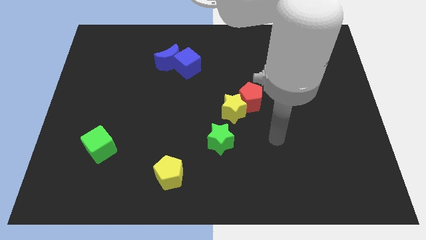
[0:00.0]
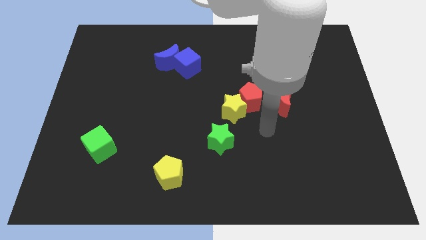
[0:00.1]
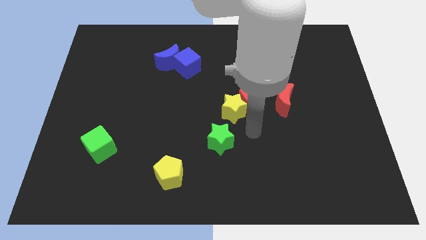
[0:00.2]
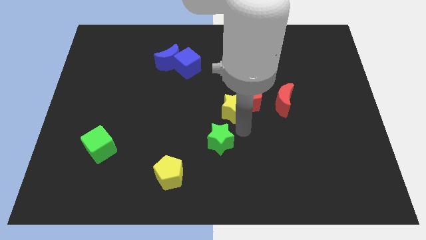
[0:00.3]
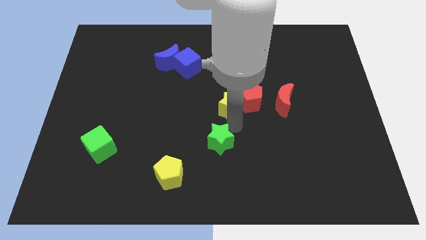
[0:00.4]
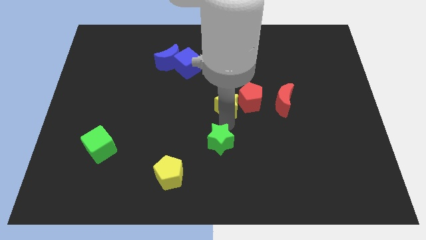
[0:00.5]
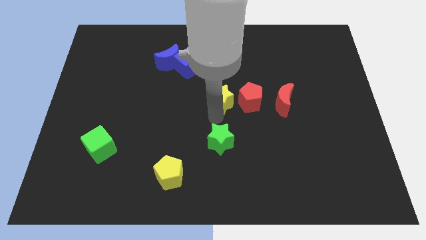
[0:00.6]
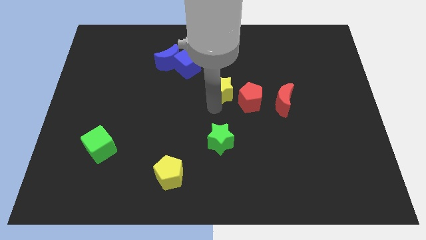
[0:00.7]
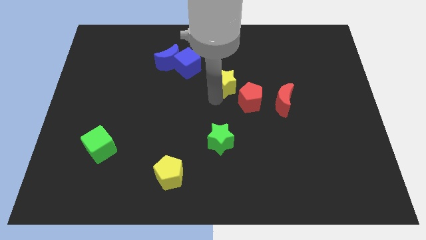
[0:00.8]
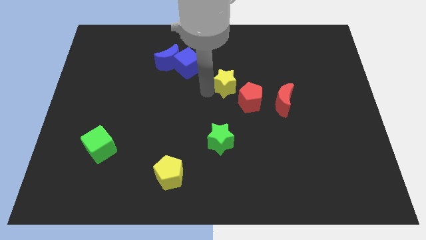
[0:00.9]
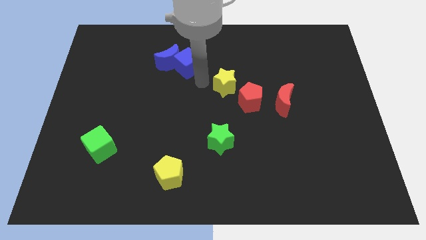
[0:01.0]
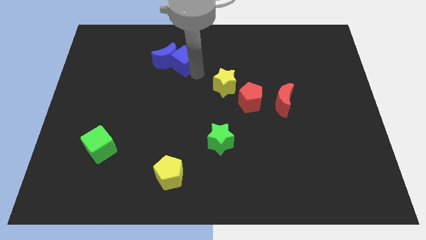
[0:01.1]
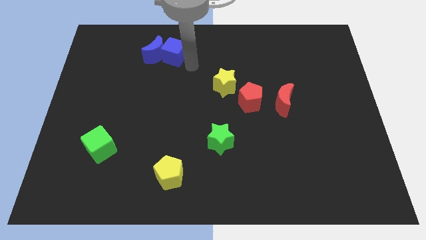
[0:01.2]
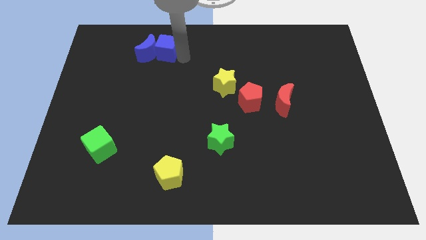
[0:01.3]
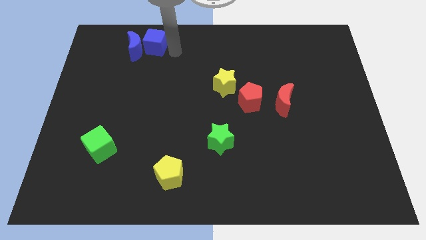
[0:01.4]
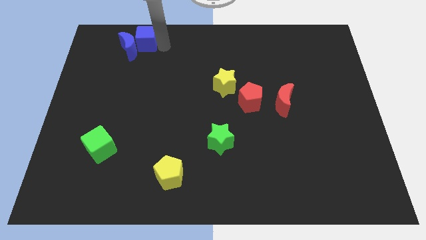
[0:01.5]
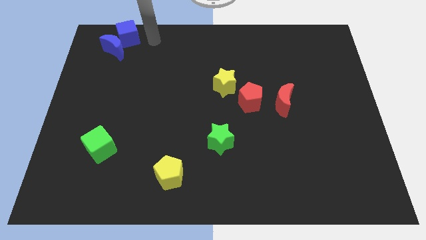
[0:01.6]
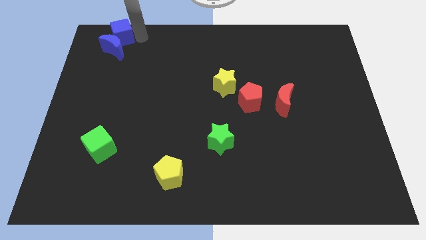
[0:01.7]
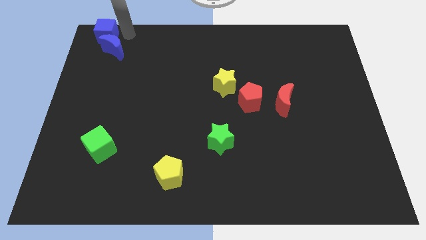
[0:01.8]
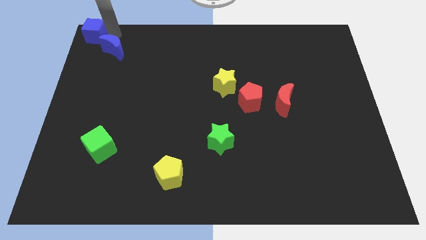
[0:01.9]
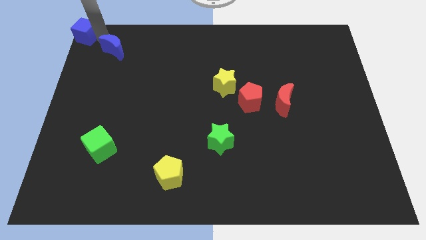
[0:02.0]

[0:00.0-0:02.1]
pull the blue moon apart from the blue cube

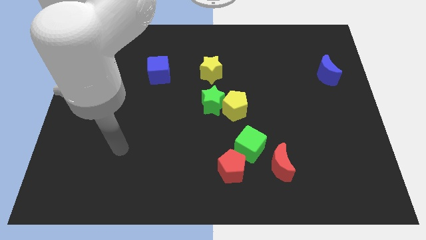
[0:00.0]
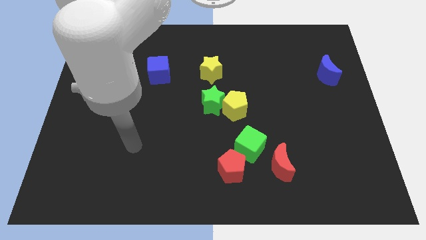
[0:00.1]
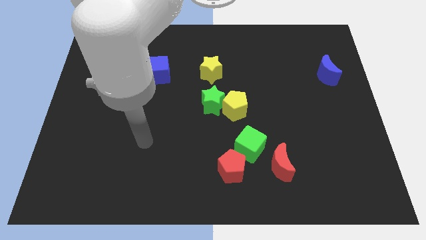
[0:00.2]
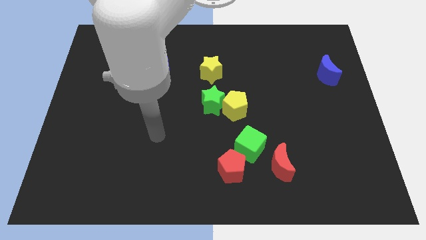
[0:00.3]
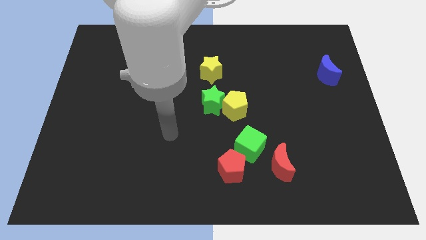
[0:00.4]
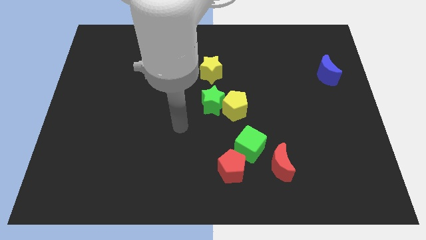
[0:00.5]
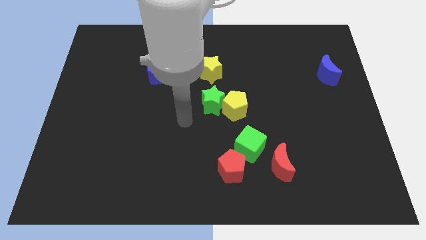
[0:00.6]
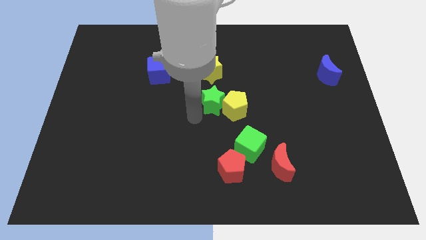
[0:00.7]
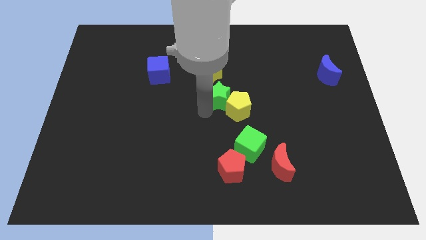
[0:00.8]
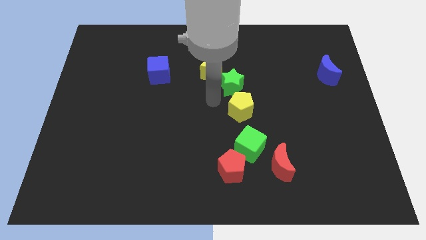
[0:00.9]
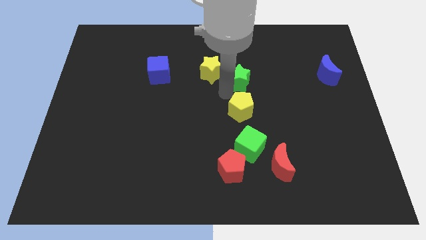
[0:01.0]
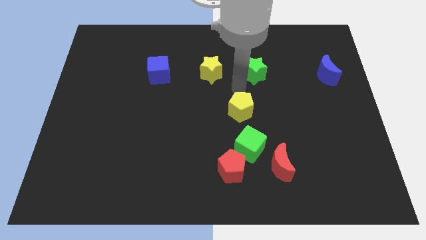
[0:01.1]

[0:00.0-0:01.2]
separate the yellow pentagon from the green star

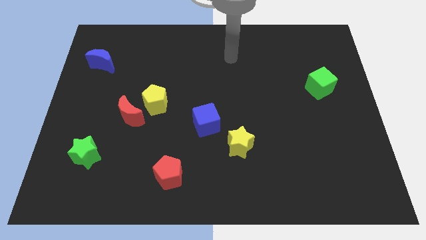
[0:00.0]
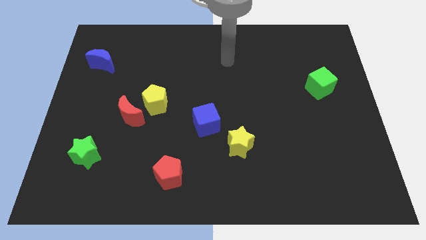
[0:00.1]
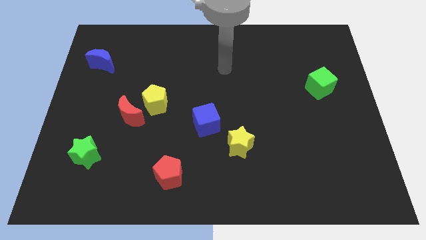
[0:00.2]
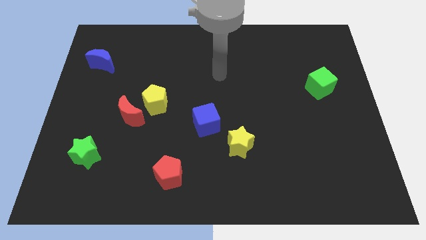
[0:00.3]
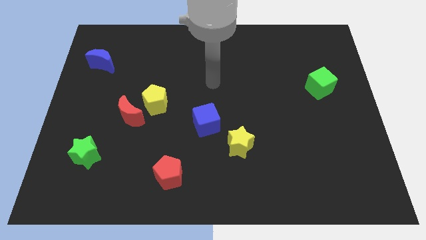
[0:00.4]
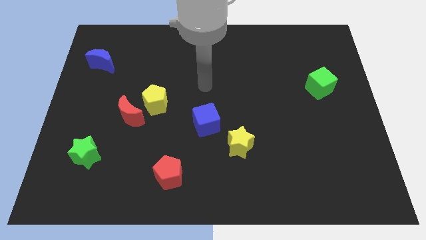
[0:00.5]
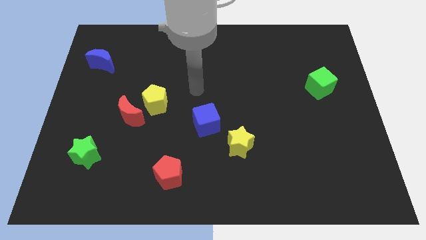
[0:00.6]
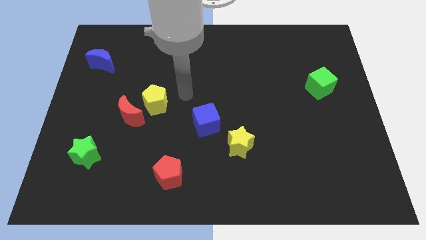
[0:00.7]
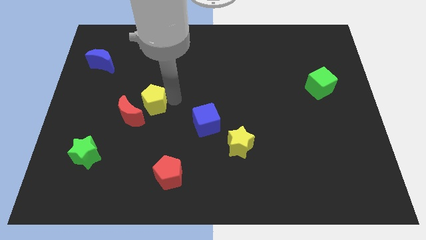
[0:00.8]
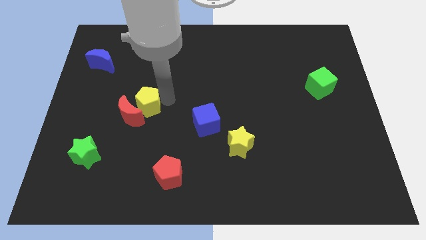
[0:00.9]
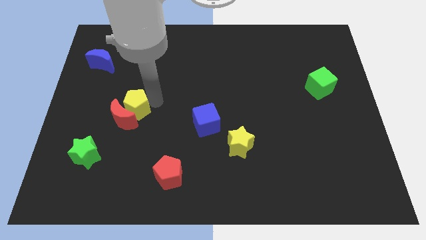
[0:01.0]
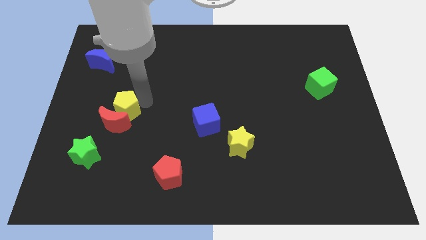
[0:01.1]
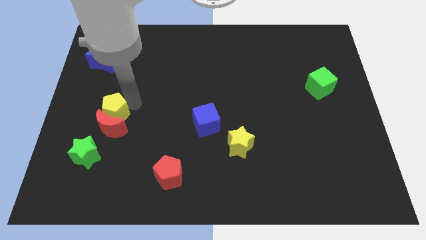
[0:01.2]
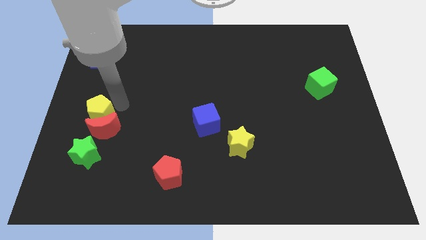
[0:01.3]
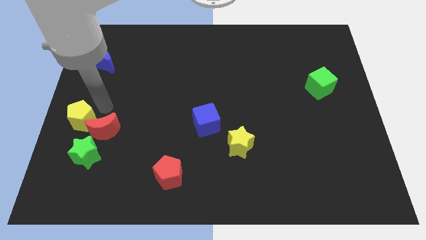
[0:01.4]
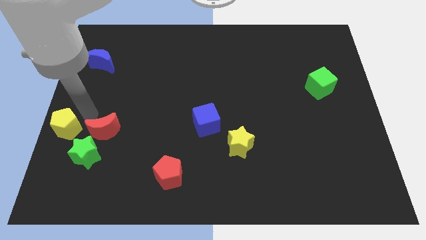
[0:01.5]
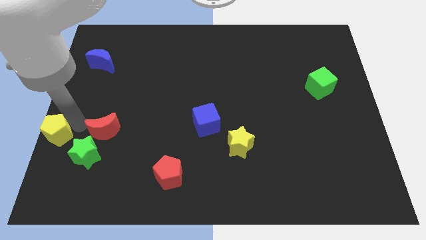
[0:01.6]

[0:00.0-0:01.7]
separate the red moon from the yellow pentagon

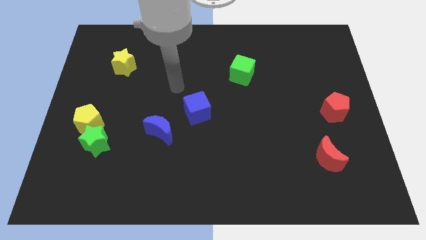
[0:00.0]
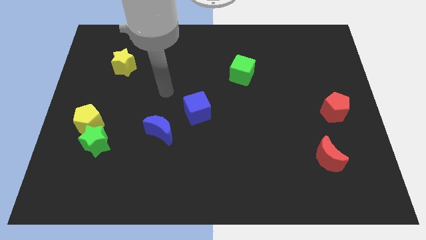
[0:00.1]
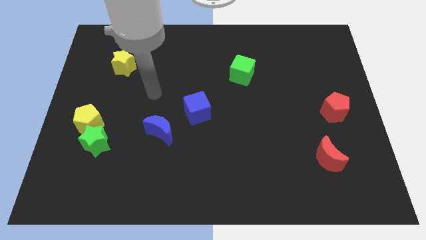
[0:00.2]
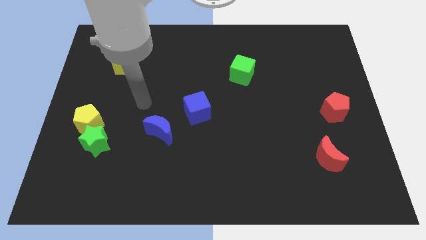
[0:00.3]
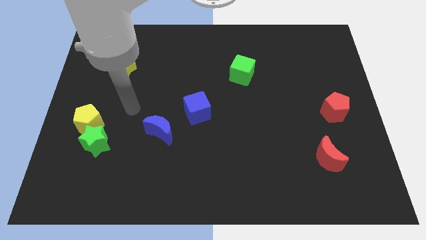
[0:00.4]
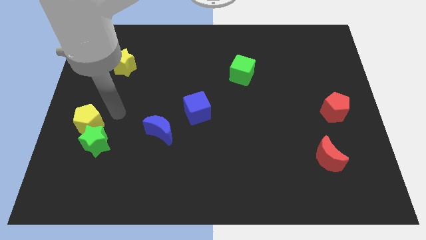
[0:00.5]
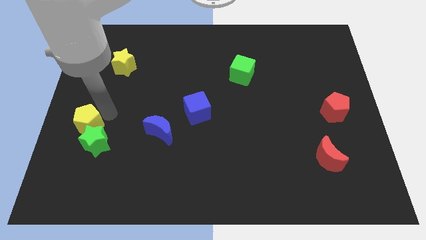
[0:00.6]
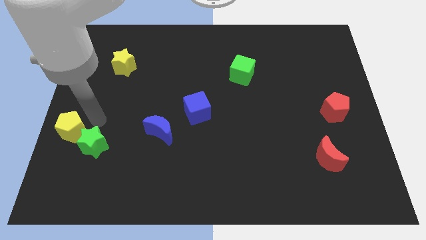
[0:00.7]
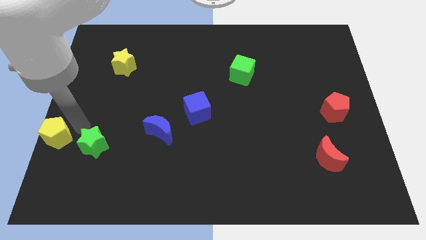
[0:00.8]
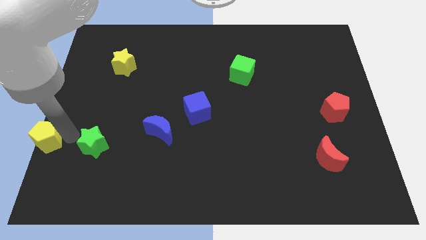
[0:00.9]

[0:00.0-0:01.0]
pull the green star apart from the yellow pentagon

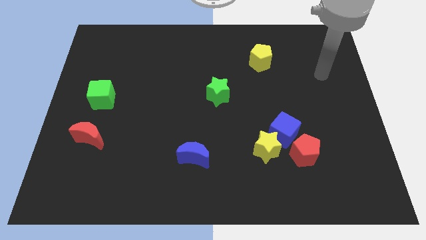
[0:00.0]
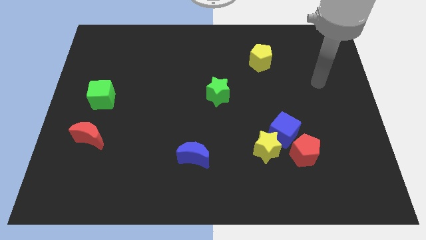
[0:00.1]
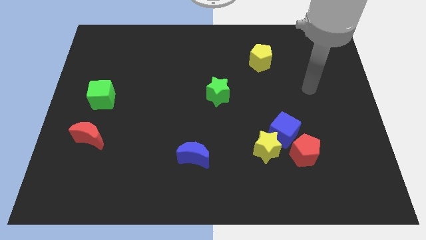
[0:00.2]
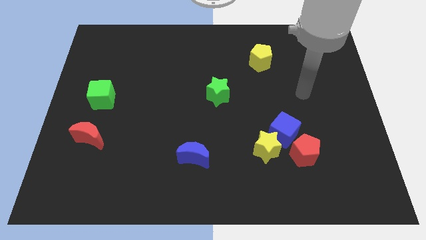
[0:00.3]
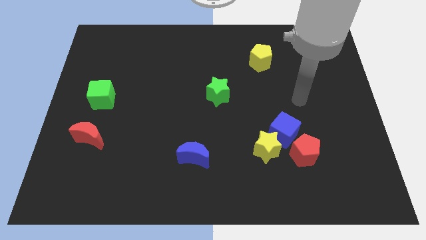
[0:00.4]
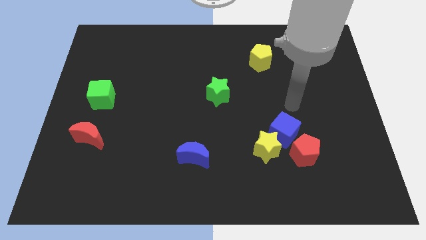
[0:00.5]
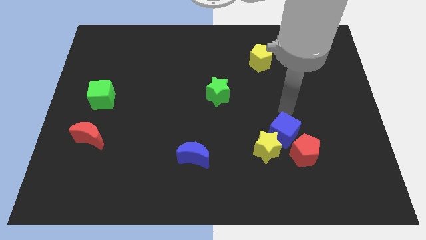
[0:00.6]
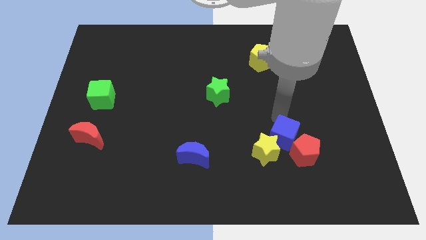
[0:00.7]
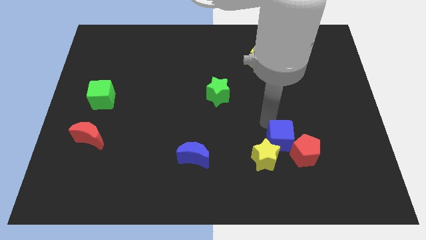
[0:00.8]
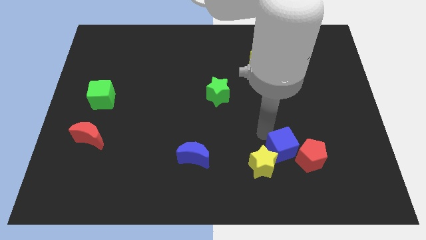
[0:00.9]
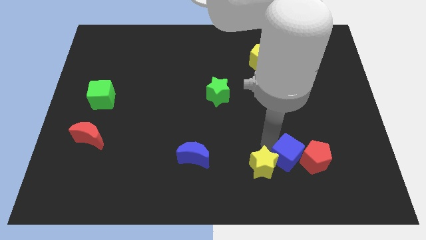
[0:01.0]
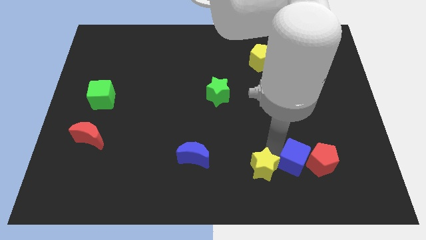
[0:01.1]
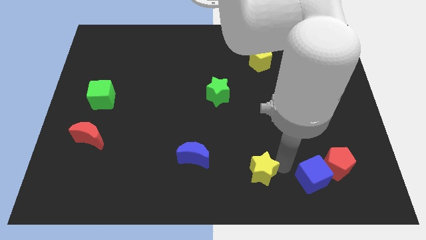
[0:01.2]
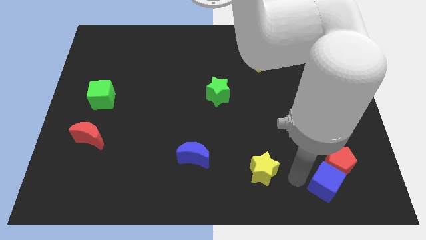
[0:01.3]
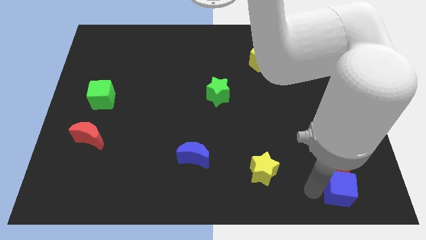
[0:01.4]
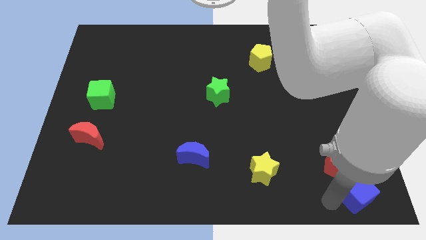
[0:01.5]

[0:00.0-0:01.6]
separate the blue cube from the yellow star and red pentagon

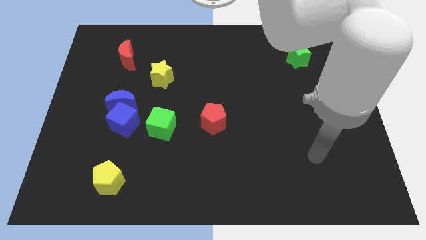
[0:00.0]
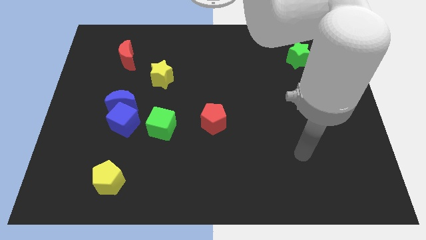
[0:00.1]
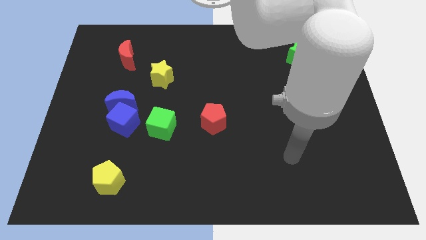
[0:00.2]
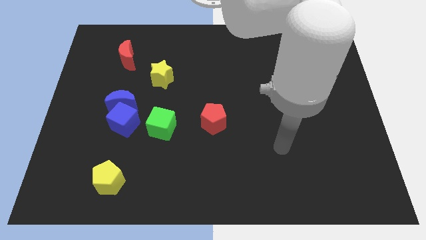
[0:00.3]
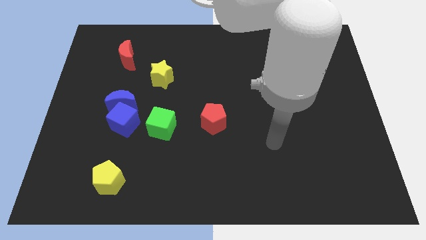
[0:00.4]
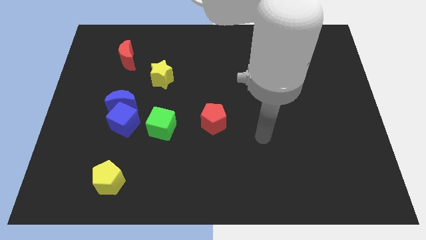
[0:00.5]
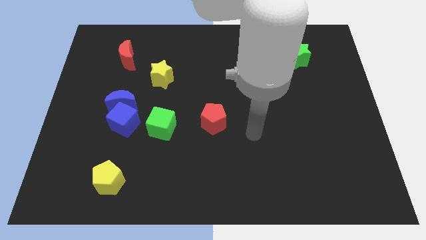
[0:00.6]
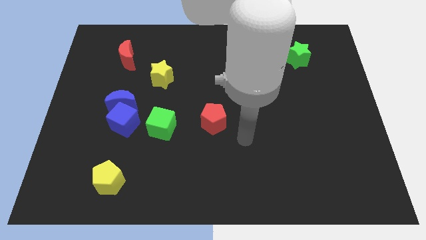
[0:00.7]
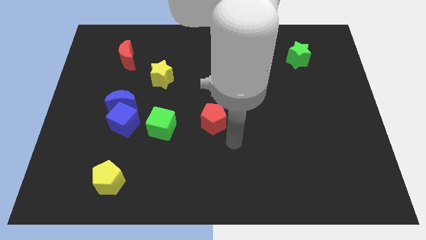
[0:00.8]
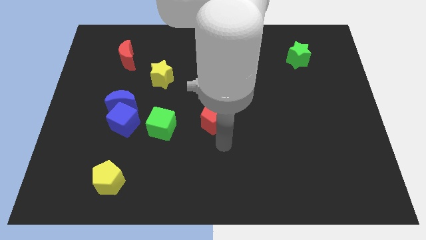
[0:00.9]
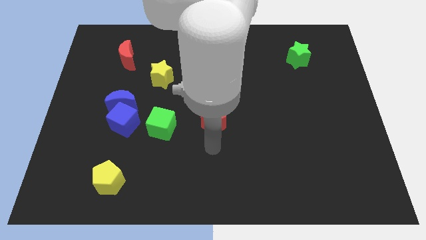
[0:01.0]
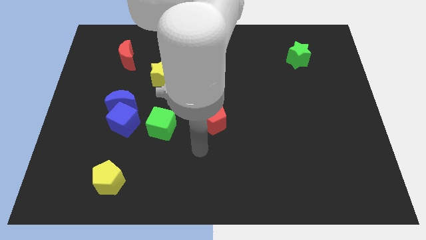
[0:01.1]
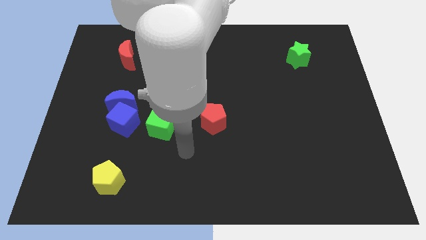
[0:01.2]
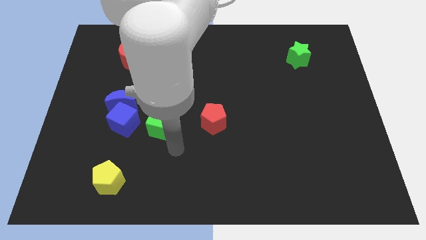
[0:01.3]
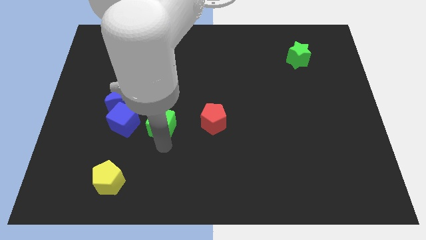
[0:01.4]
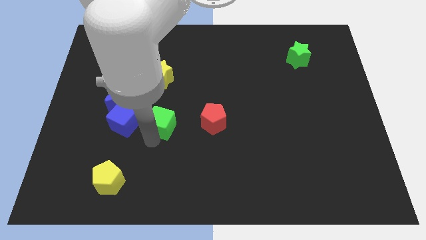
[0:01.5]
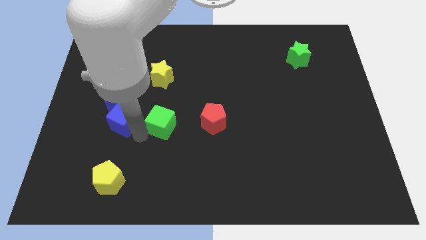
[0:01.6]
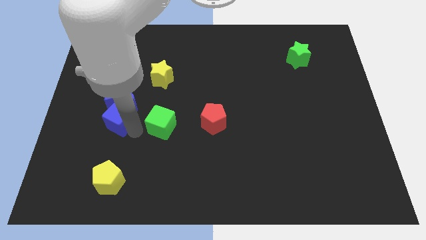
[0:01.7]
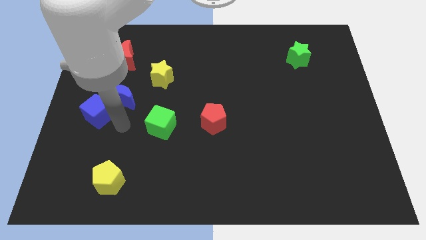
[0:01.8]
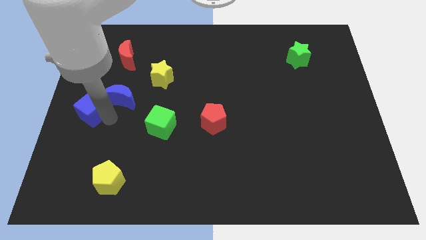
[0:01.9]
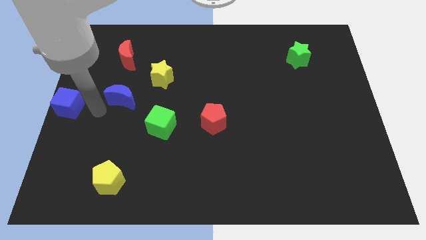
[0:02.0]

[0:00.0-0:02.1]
move the blue moon away from the blue cube
